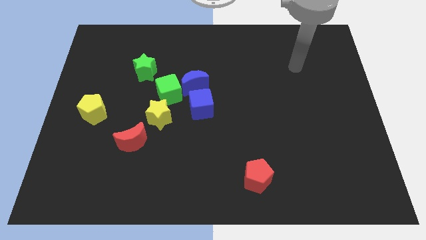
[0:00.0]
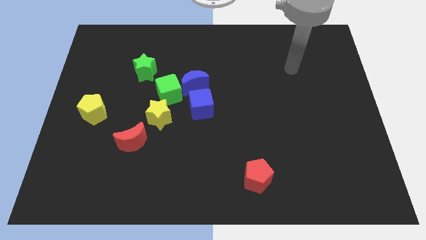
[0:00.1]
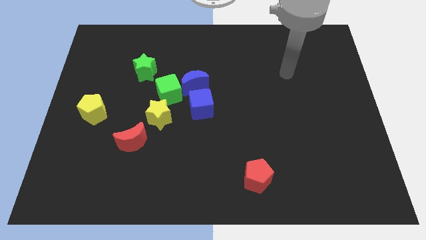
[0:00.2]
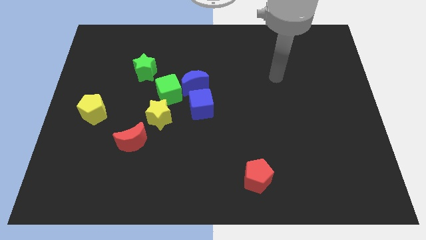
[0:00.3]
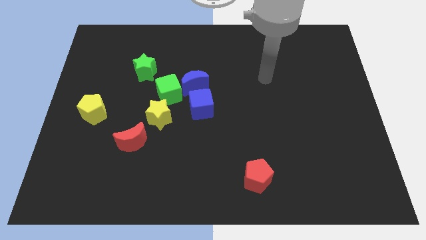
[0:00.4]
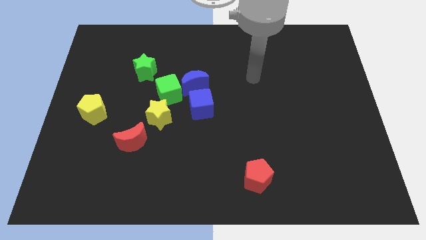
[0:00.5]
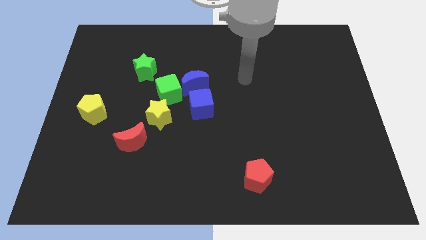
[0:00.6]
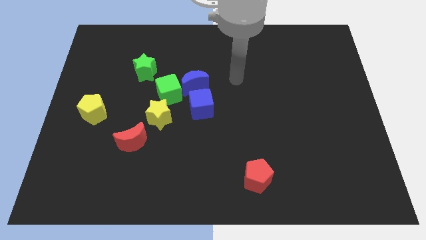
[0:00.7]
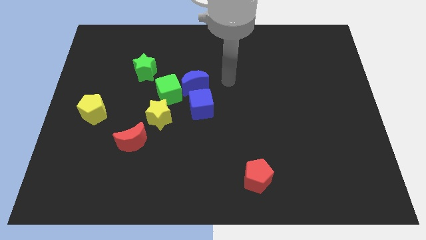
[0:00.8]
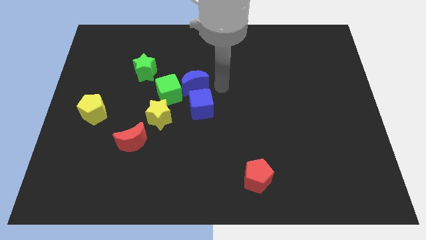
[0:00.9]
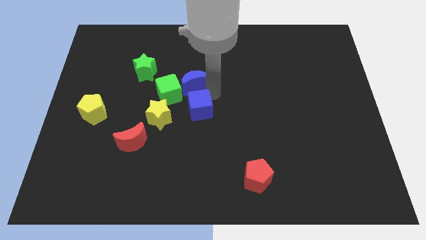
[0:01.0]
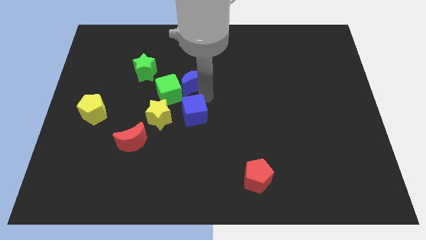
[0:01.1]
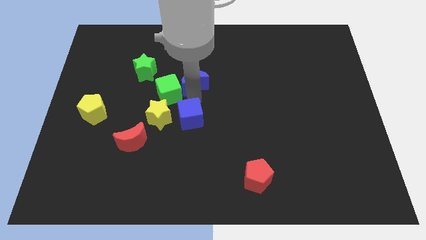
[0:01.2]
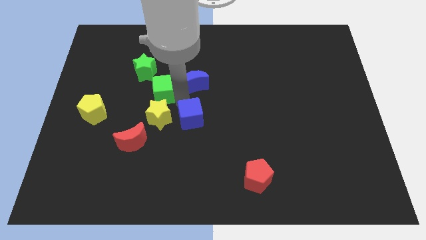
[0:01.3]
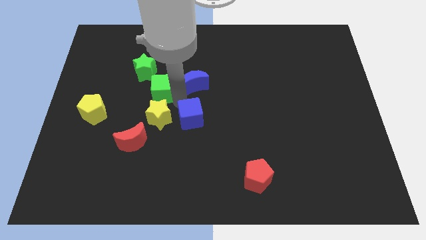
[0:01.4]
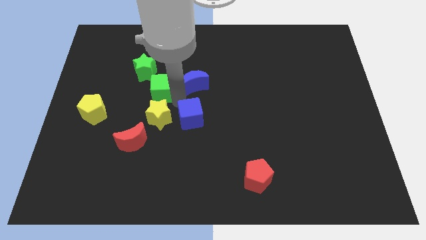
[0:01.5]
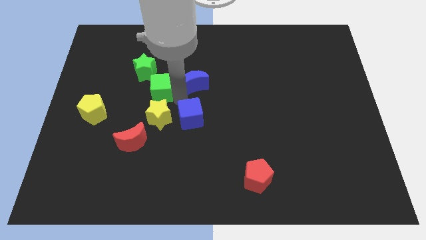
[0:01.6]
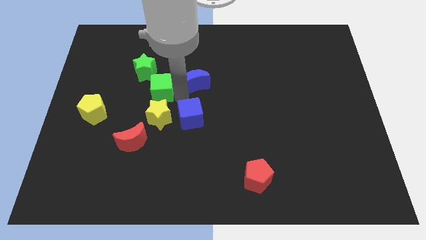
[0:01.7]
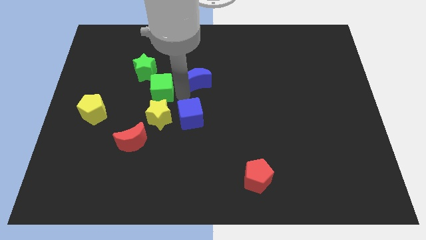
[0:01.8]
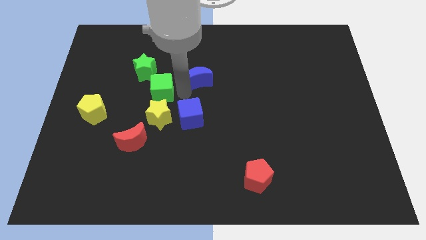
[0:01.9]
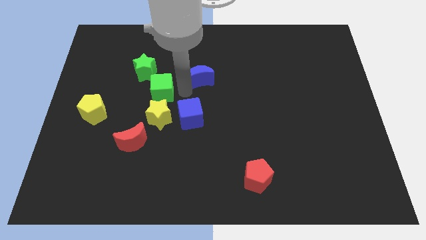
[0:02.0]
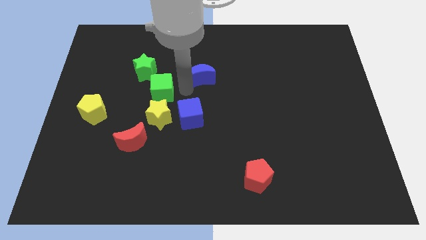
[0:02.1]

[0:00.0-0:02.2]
move the blue moon away from the green cube and blue cube

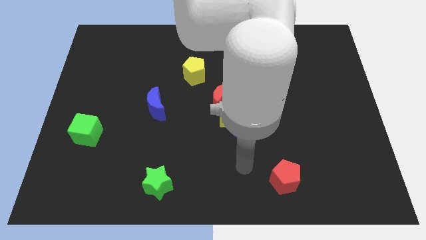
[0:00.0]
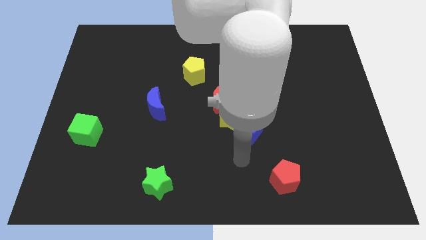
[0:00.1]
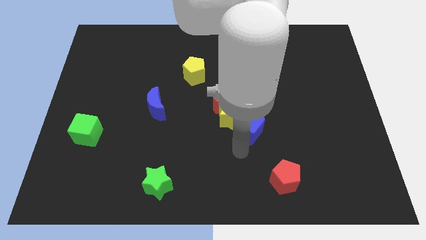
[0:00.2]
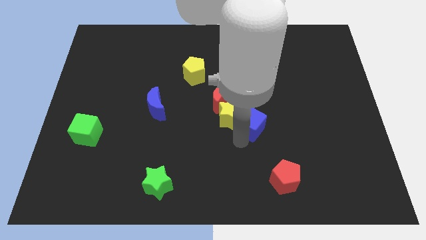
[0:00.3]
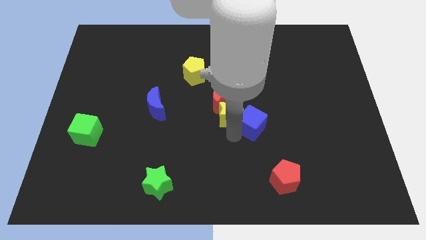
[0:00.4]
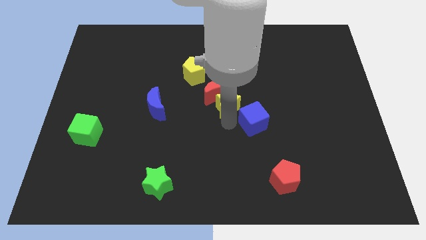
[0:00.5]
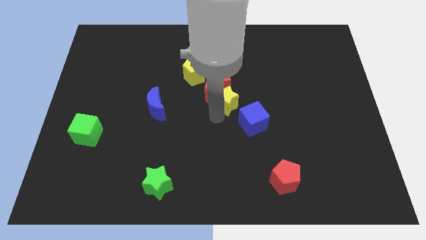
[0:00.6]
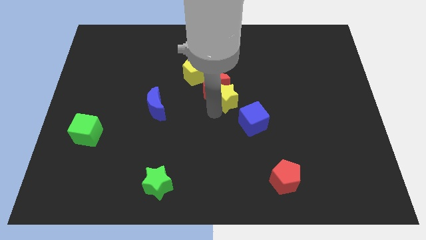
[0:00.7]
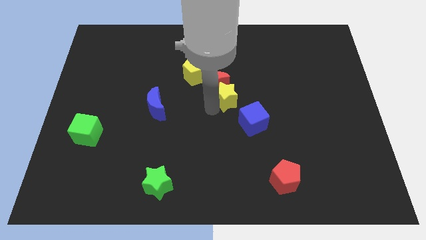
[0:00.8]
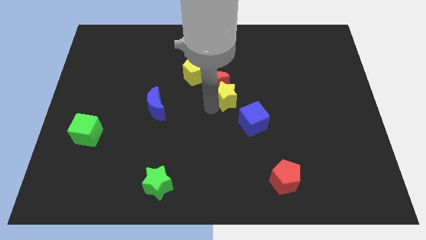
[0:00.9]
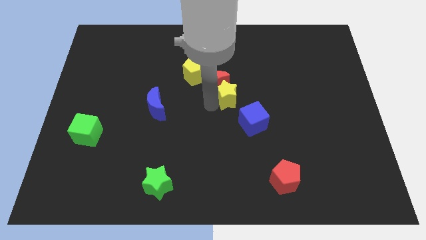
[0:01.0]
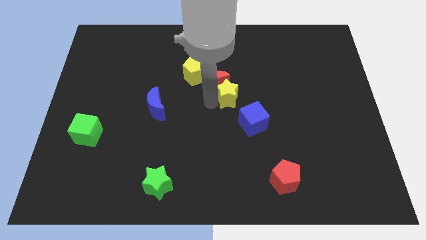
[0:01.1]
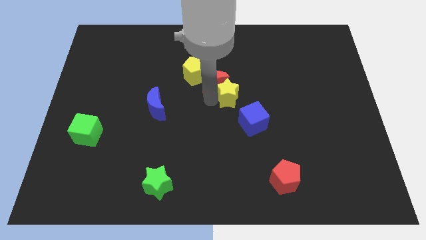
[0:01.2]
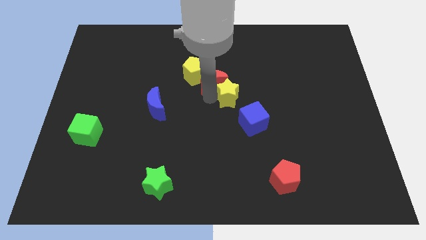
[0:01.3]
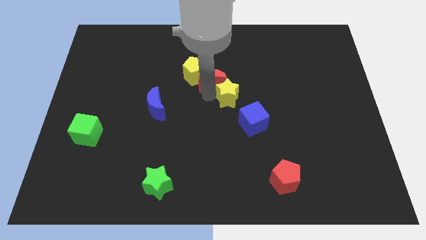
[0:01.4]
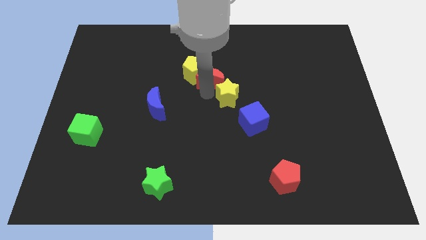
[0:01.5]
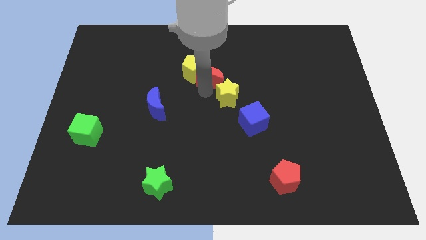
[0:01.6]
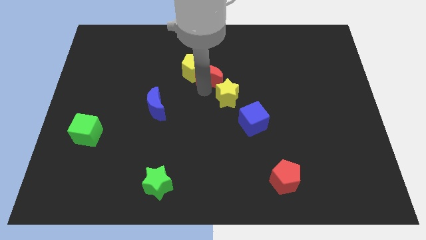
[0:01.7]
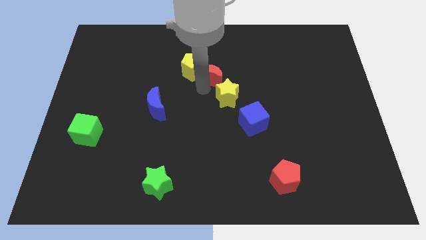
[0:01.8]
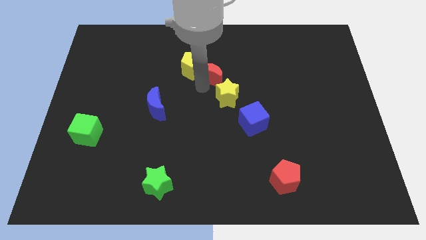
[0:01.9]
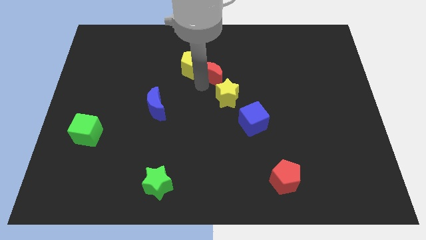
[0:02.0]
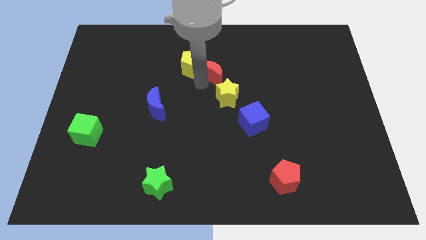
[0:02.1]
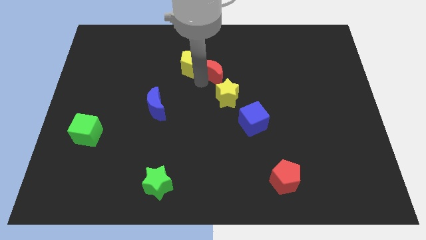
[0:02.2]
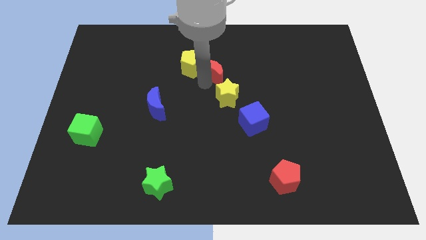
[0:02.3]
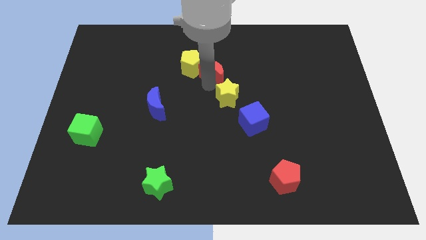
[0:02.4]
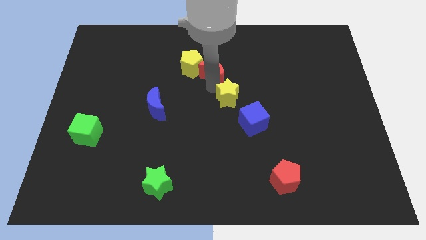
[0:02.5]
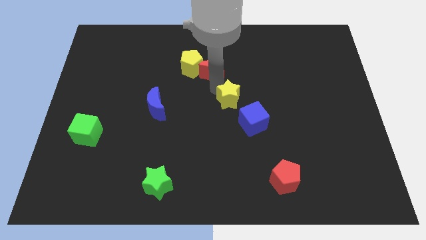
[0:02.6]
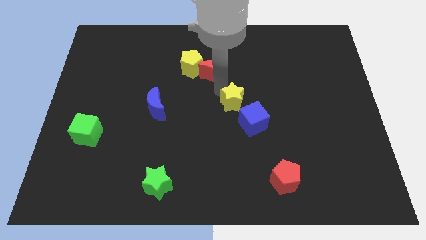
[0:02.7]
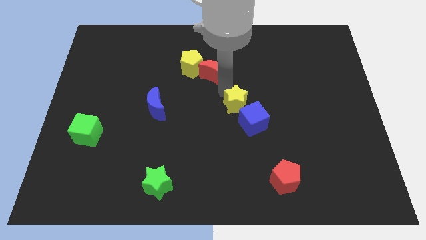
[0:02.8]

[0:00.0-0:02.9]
separate the red moon from the yellow star

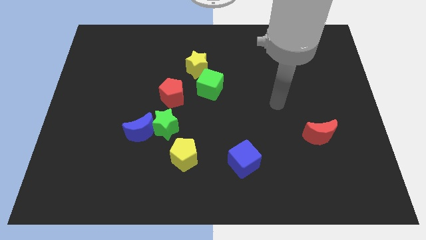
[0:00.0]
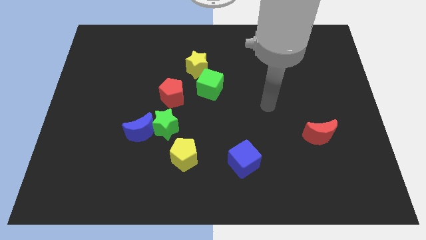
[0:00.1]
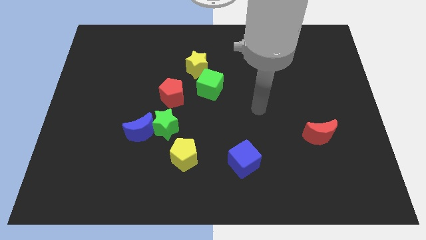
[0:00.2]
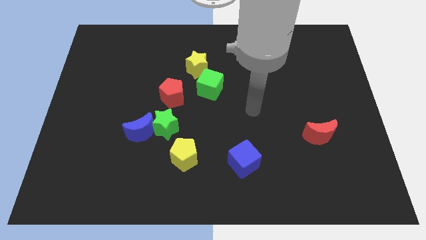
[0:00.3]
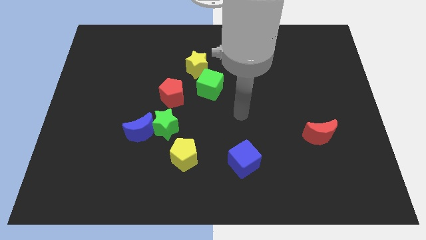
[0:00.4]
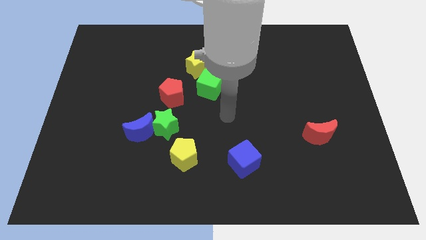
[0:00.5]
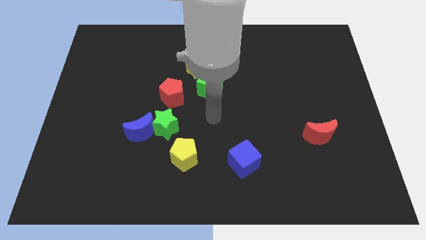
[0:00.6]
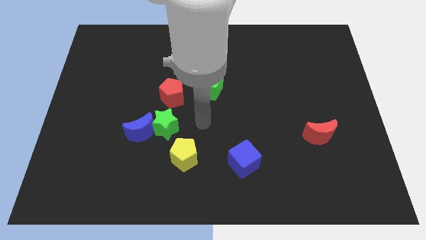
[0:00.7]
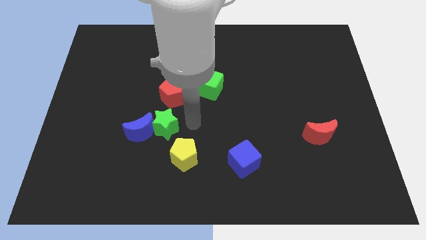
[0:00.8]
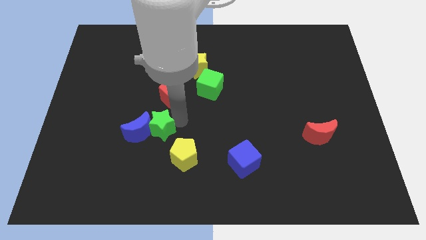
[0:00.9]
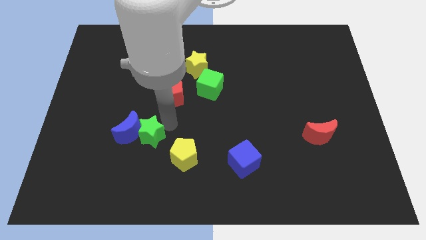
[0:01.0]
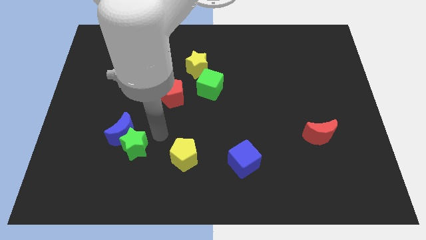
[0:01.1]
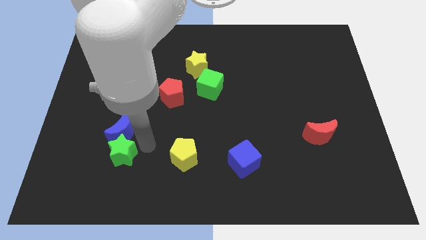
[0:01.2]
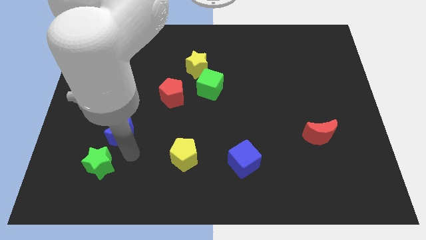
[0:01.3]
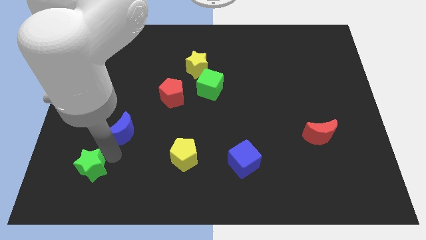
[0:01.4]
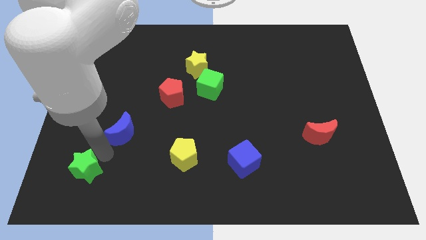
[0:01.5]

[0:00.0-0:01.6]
pull the blue moon apart from the green star

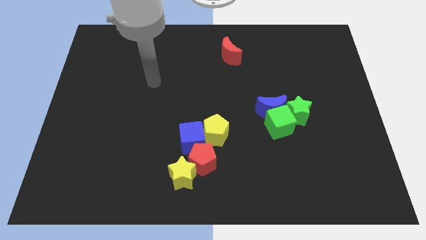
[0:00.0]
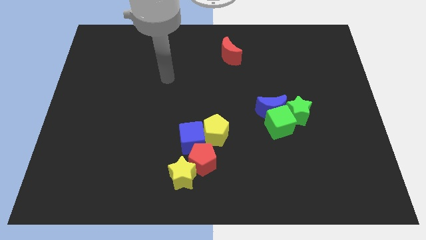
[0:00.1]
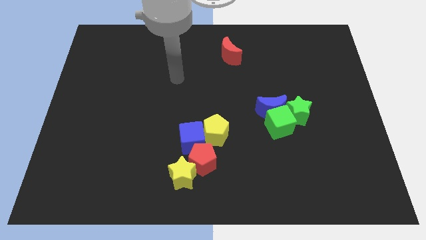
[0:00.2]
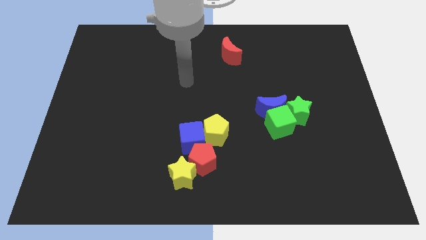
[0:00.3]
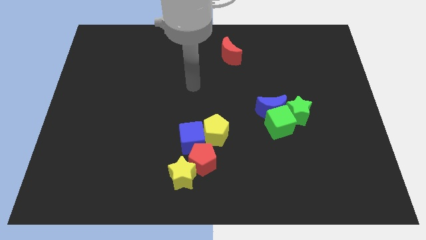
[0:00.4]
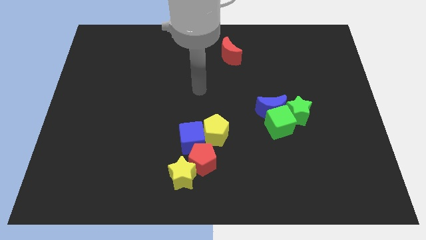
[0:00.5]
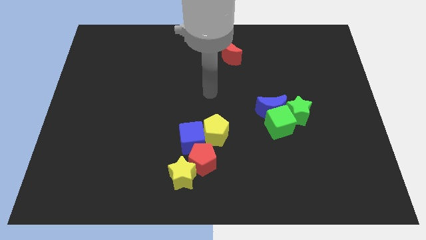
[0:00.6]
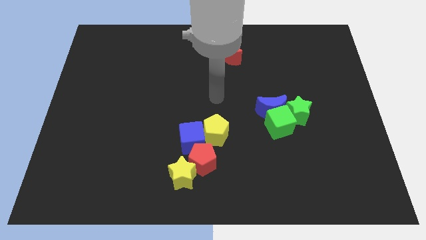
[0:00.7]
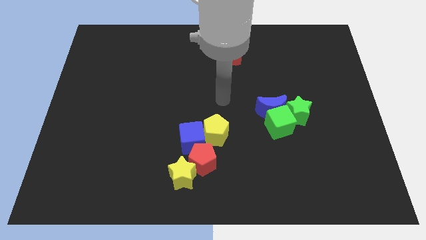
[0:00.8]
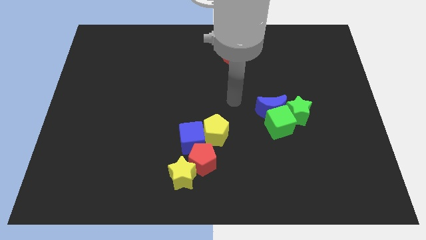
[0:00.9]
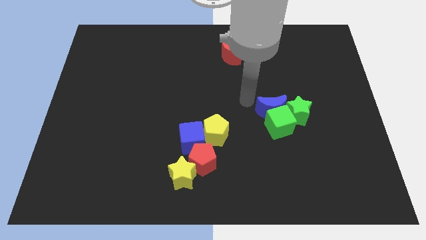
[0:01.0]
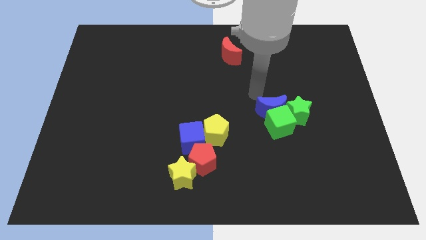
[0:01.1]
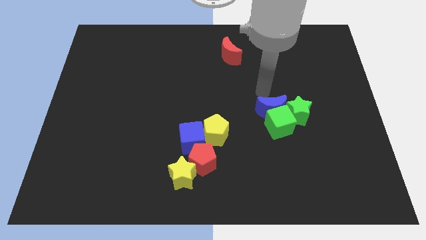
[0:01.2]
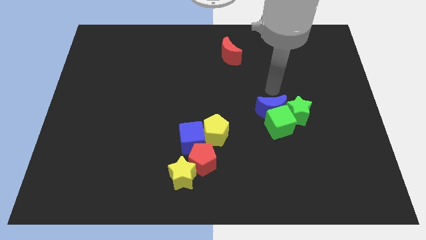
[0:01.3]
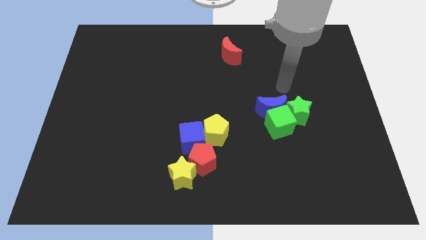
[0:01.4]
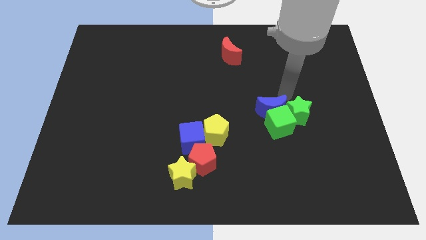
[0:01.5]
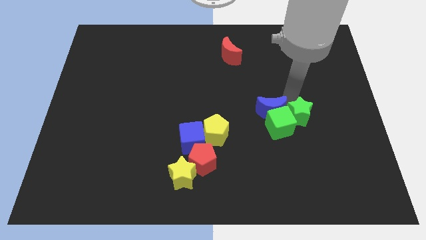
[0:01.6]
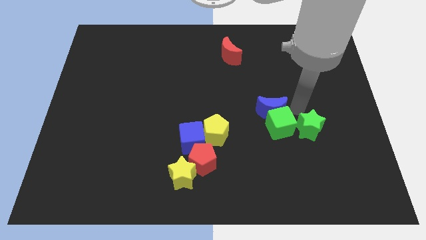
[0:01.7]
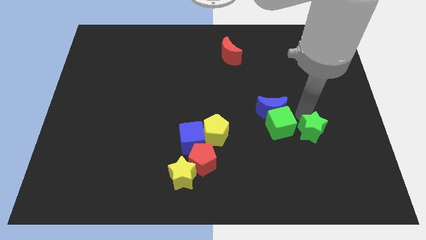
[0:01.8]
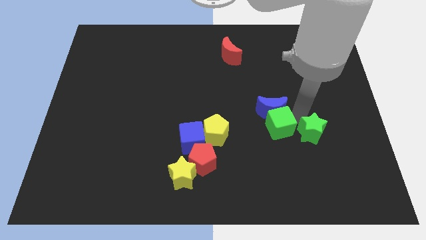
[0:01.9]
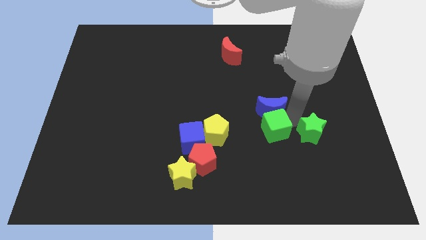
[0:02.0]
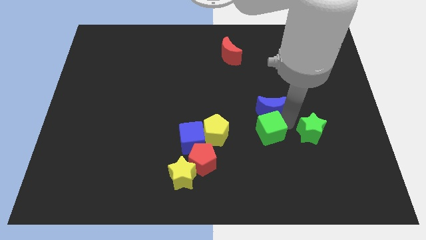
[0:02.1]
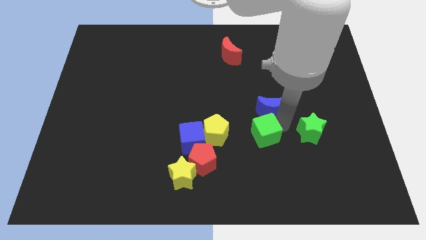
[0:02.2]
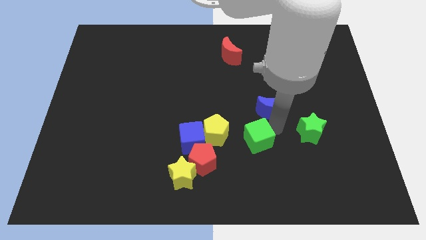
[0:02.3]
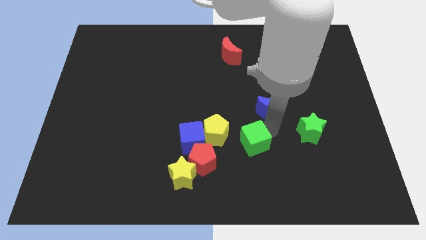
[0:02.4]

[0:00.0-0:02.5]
move the green cube away from the blue moon and green star
